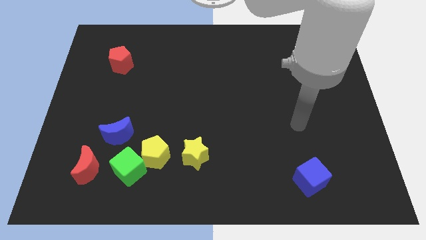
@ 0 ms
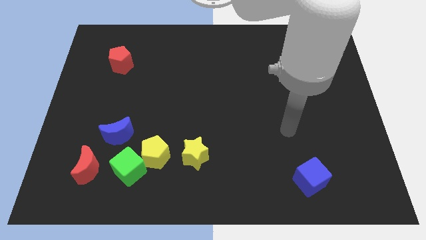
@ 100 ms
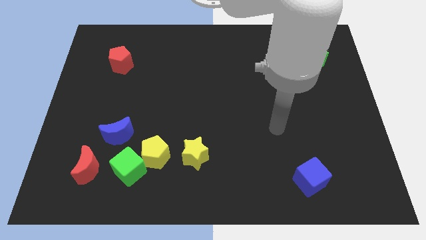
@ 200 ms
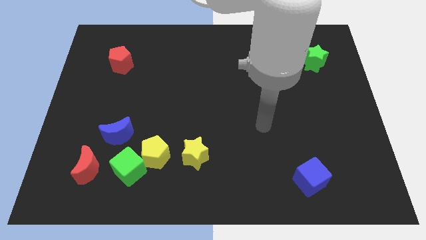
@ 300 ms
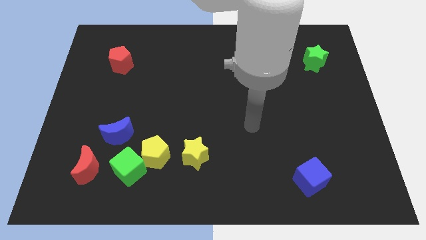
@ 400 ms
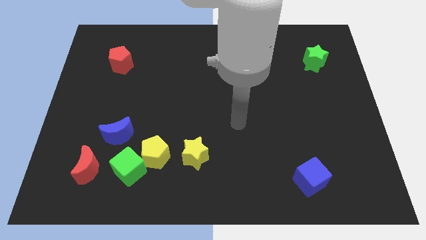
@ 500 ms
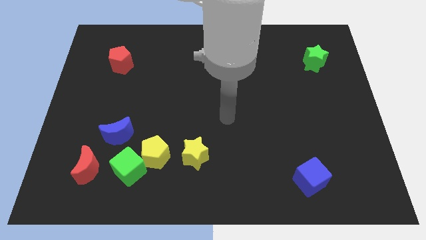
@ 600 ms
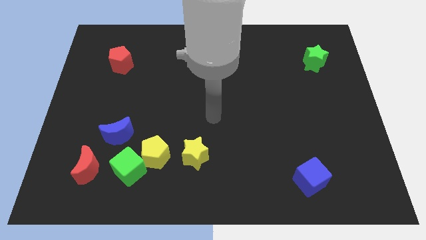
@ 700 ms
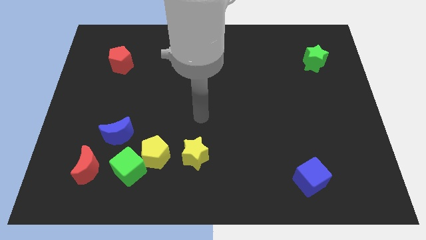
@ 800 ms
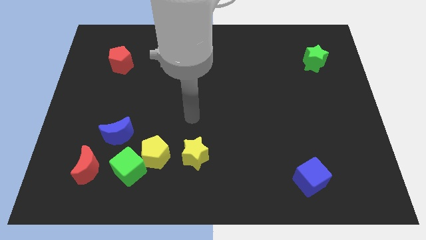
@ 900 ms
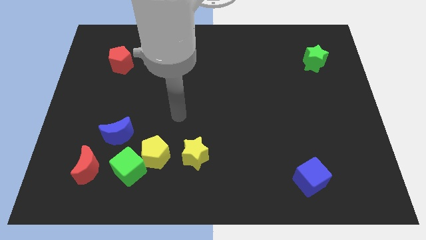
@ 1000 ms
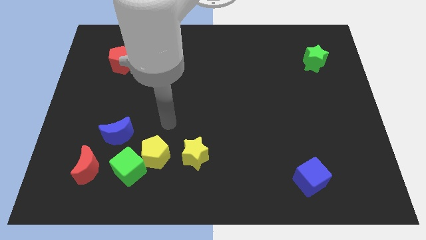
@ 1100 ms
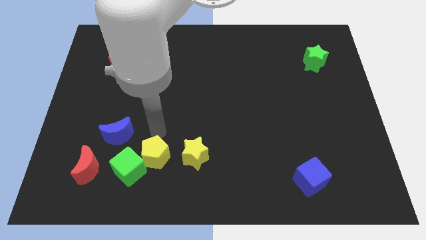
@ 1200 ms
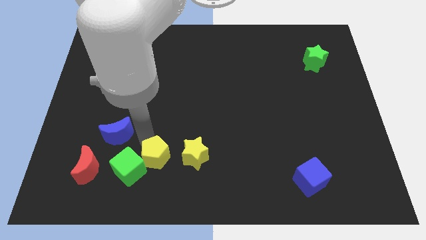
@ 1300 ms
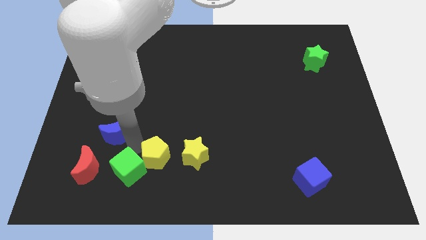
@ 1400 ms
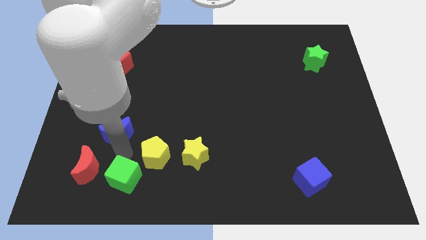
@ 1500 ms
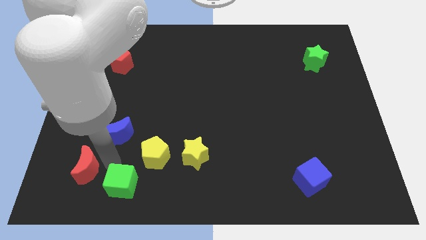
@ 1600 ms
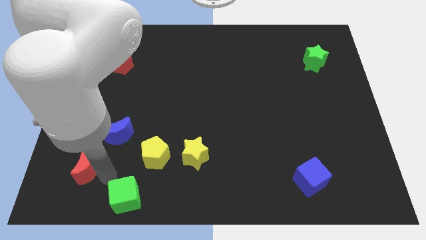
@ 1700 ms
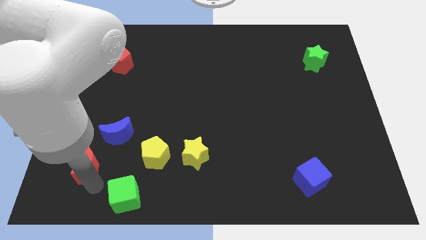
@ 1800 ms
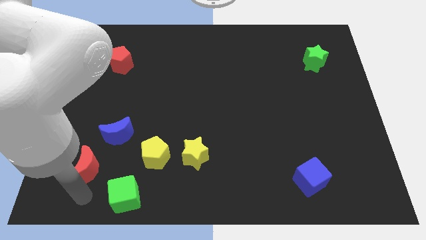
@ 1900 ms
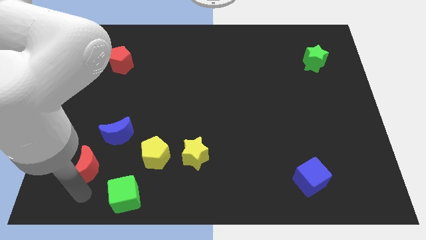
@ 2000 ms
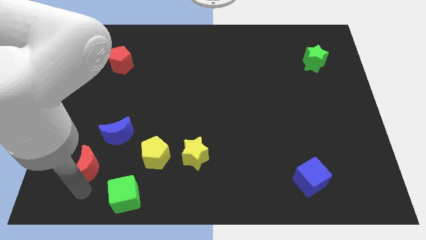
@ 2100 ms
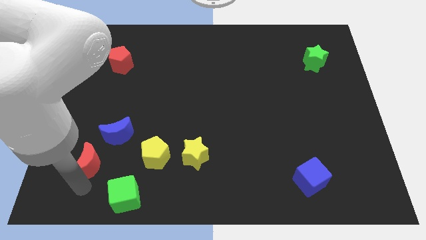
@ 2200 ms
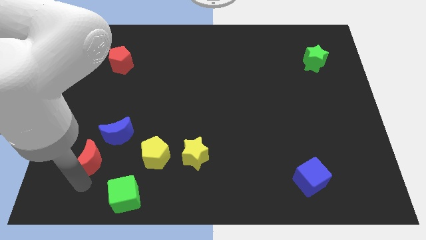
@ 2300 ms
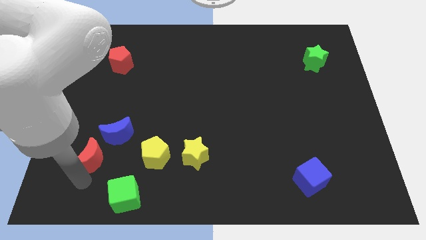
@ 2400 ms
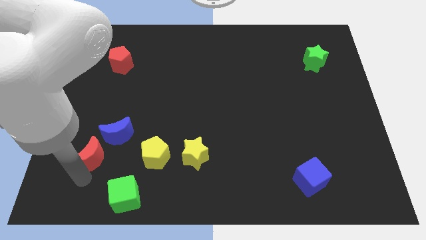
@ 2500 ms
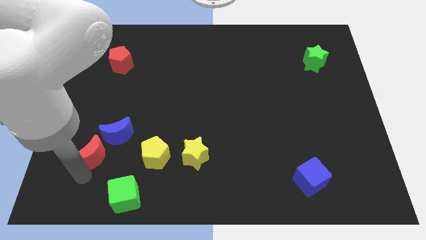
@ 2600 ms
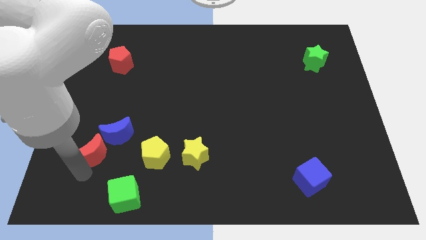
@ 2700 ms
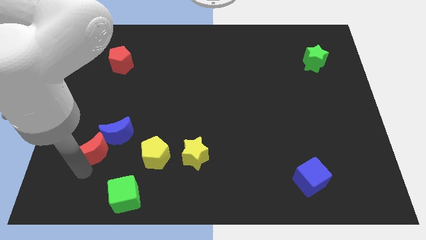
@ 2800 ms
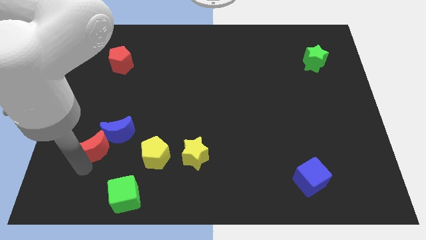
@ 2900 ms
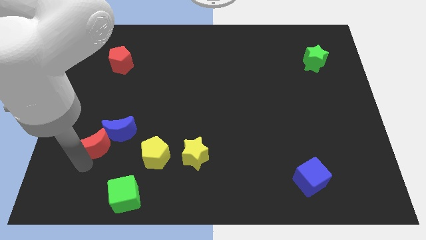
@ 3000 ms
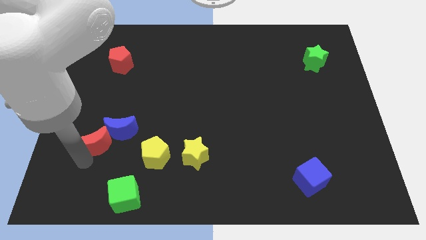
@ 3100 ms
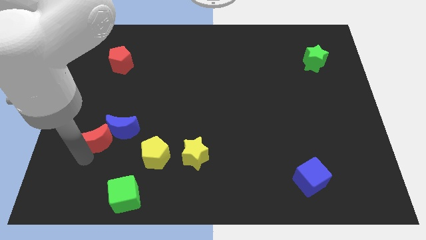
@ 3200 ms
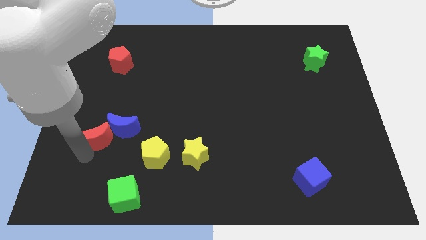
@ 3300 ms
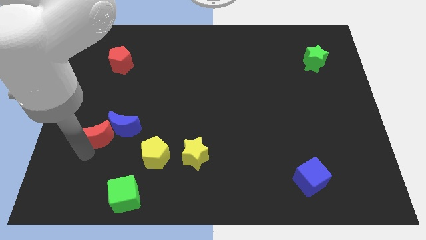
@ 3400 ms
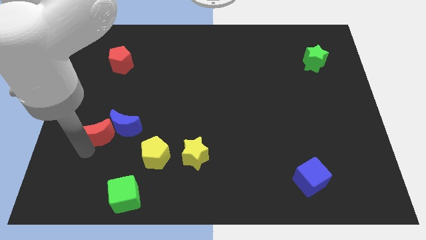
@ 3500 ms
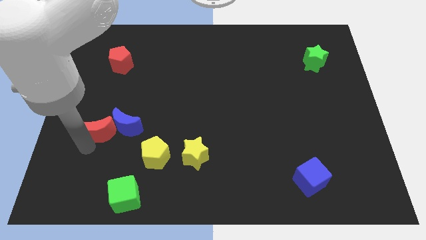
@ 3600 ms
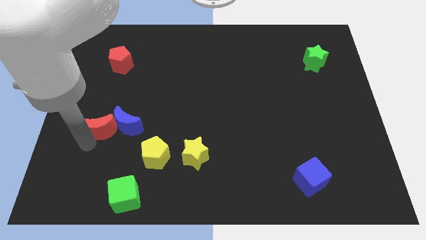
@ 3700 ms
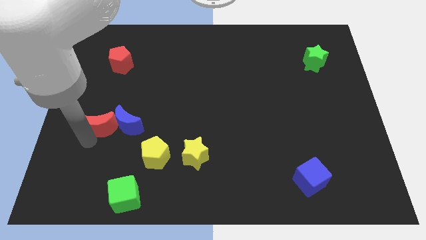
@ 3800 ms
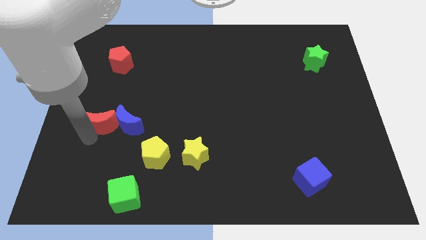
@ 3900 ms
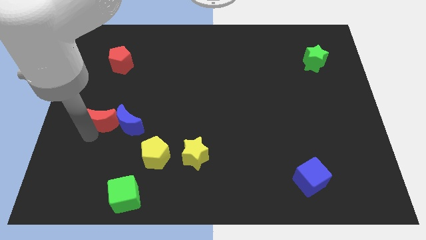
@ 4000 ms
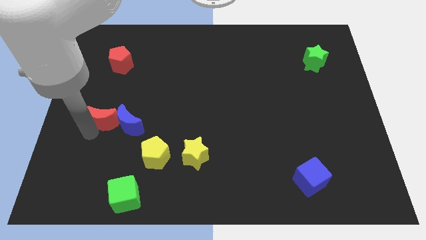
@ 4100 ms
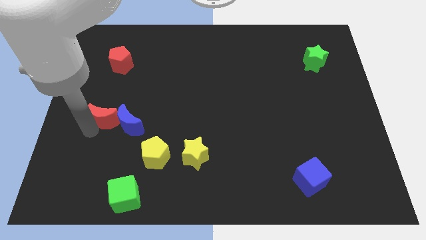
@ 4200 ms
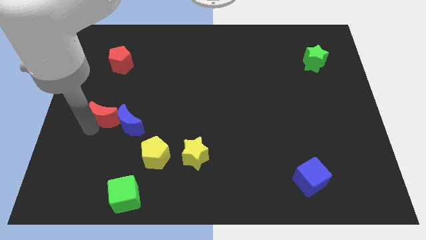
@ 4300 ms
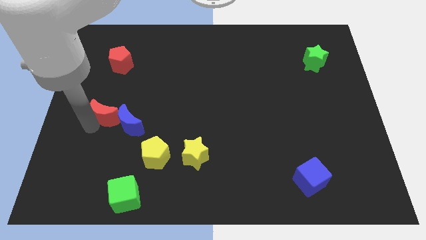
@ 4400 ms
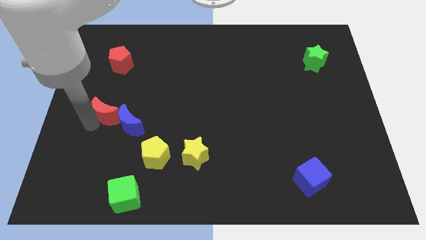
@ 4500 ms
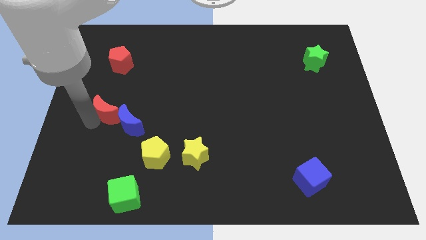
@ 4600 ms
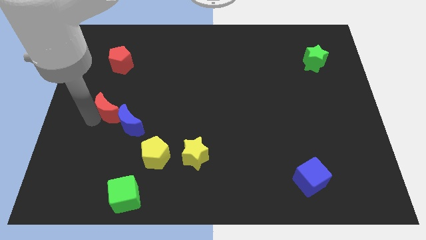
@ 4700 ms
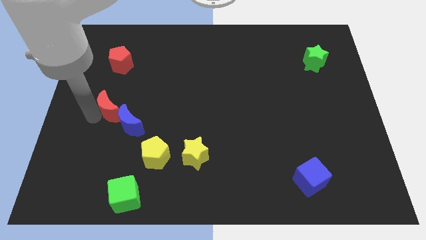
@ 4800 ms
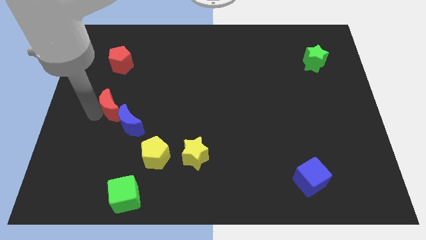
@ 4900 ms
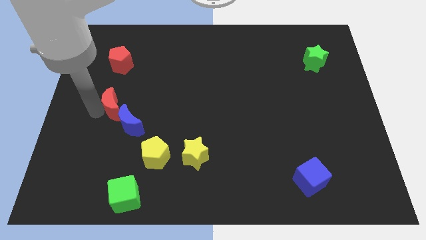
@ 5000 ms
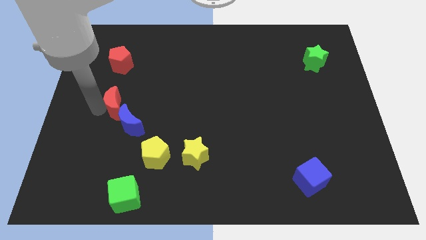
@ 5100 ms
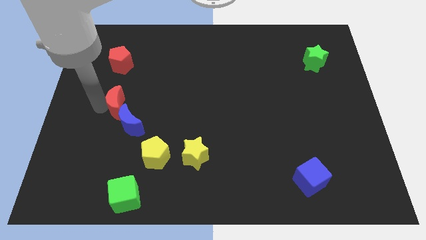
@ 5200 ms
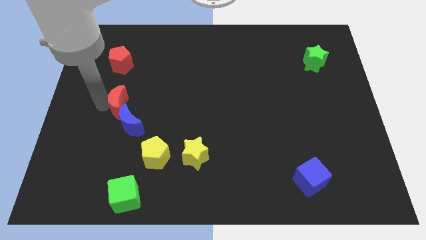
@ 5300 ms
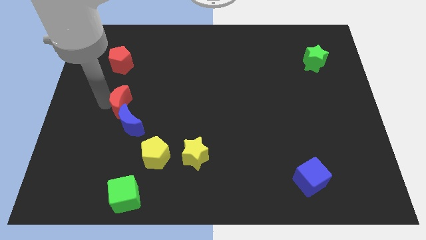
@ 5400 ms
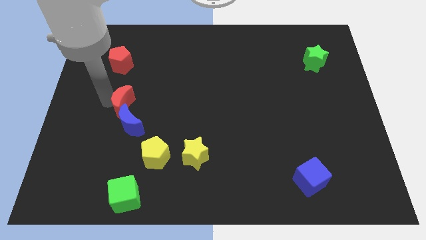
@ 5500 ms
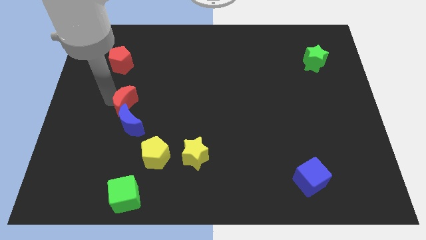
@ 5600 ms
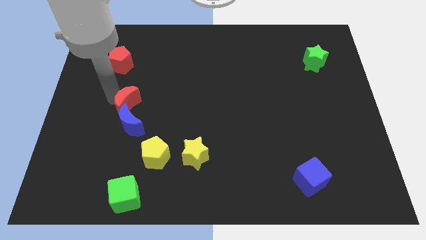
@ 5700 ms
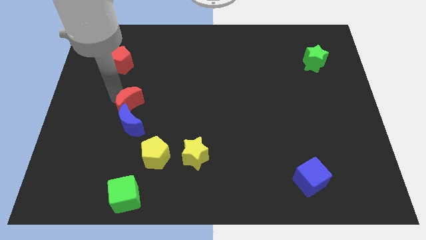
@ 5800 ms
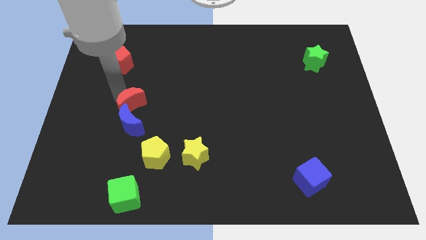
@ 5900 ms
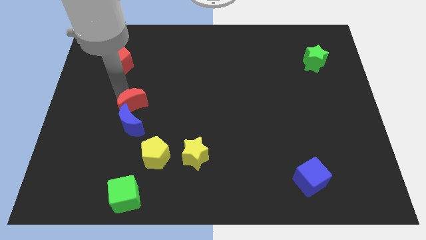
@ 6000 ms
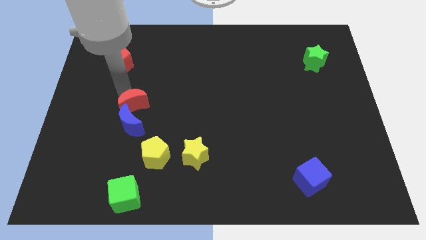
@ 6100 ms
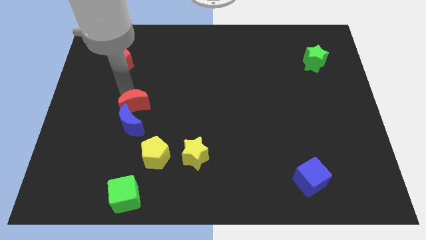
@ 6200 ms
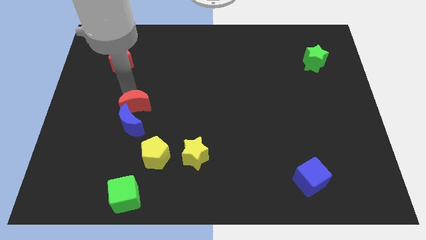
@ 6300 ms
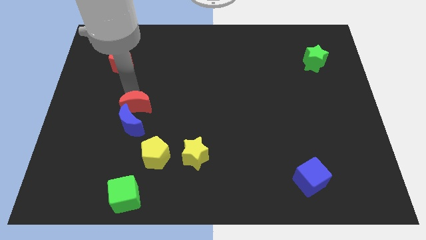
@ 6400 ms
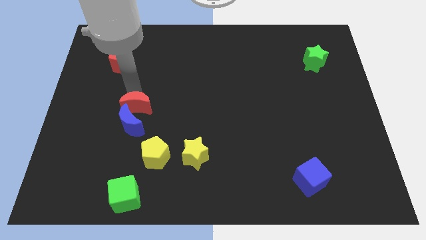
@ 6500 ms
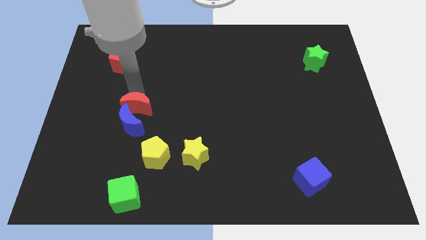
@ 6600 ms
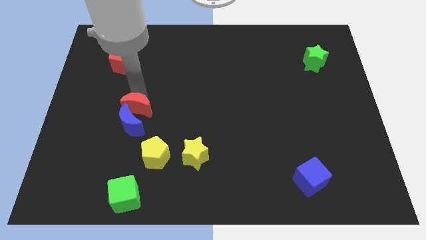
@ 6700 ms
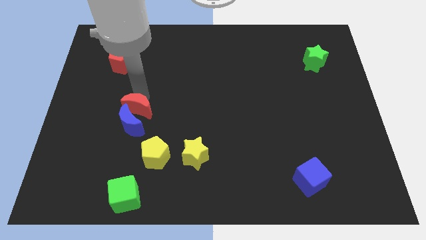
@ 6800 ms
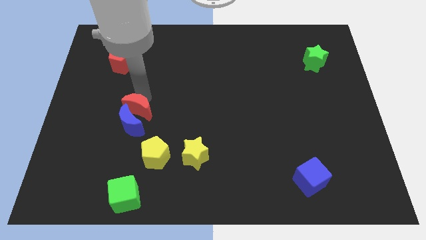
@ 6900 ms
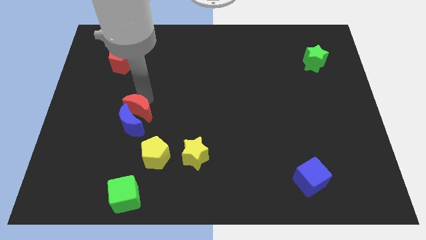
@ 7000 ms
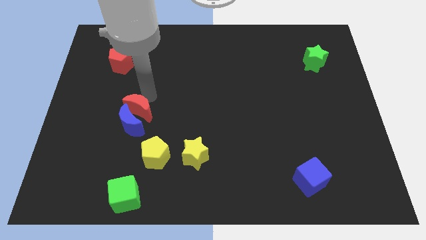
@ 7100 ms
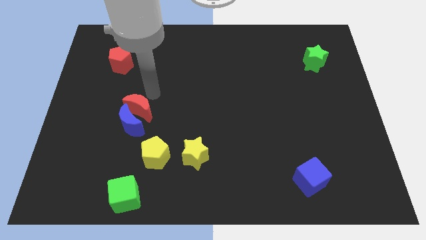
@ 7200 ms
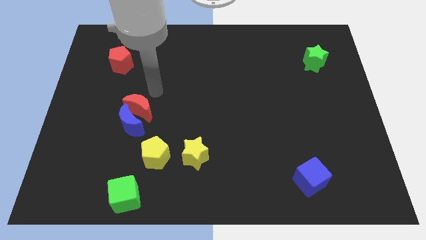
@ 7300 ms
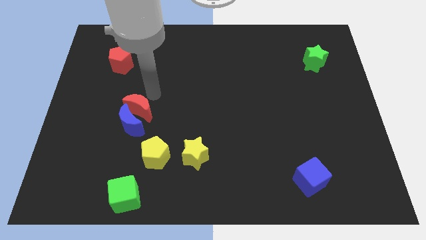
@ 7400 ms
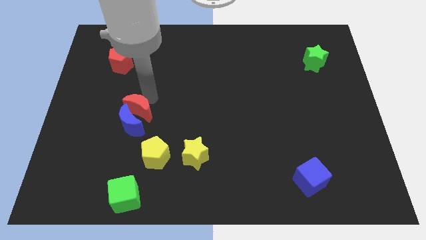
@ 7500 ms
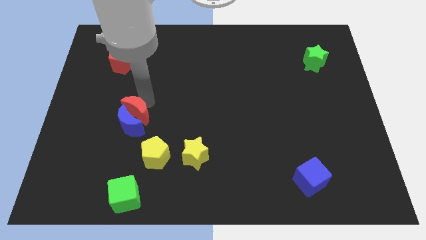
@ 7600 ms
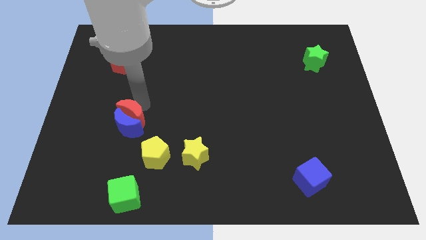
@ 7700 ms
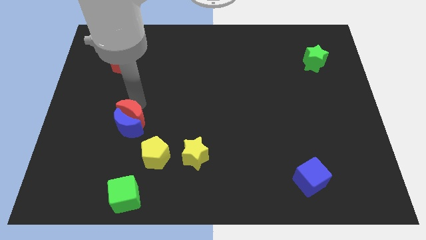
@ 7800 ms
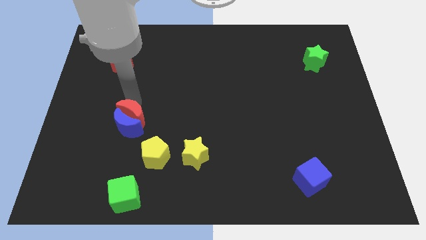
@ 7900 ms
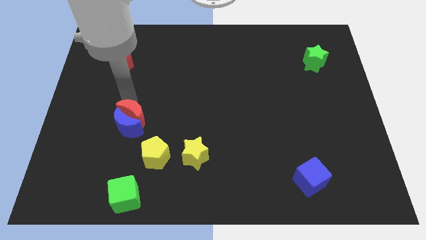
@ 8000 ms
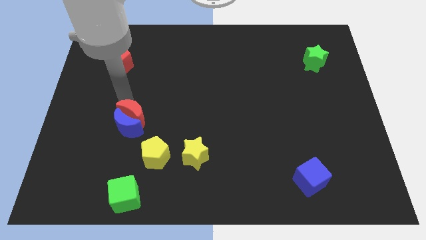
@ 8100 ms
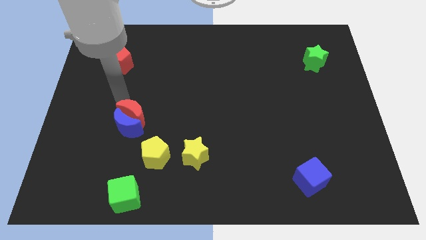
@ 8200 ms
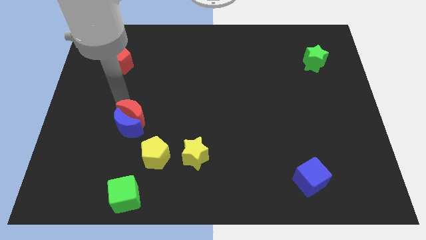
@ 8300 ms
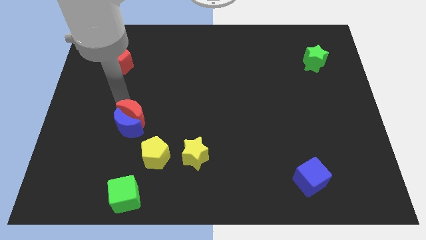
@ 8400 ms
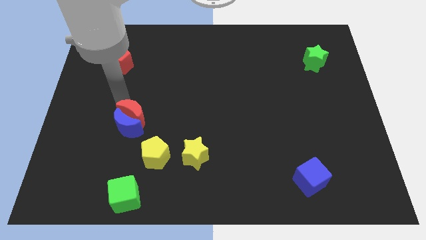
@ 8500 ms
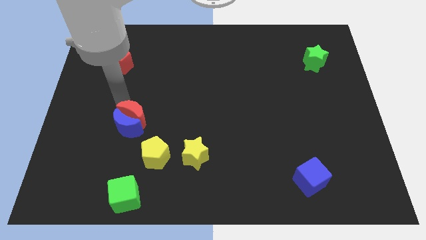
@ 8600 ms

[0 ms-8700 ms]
put the red moon to the right of the blue moon
